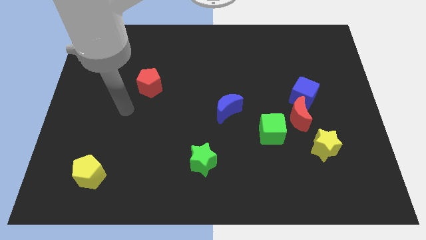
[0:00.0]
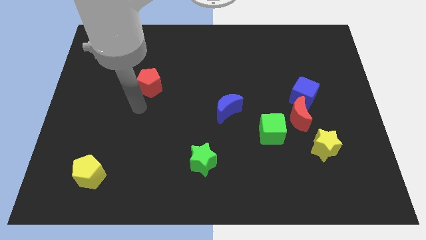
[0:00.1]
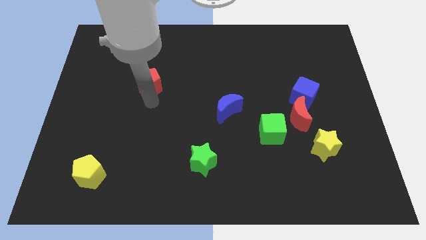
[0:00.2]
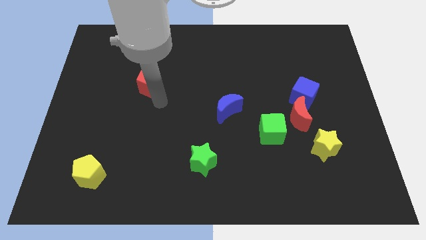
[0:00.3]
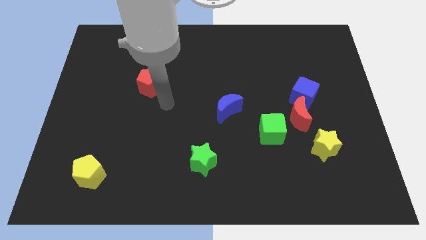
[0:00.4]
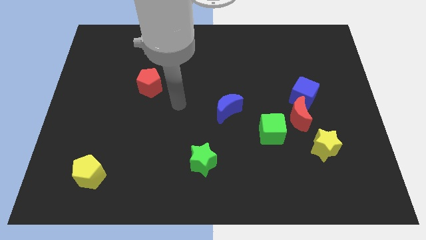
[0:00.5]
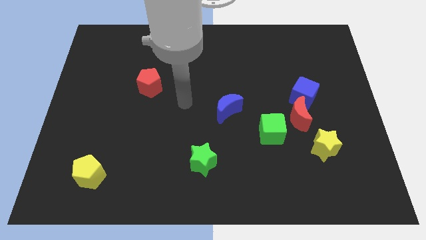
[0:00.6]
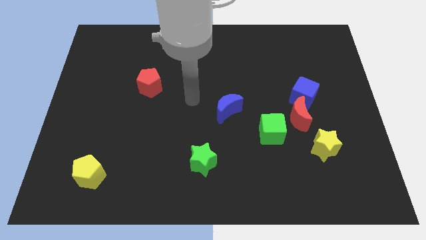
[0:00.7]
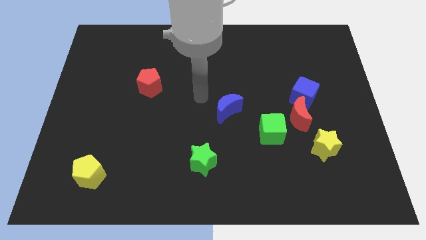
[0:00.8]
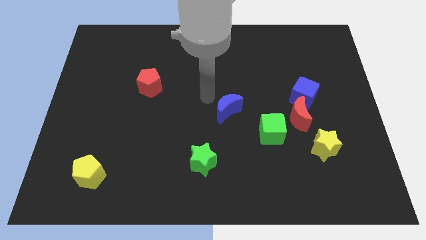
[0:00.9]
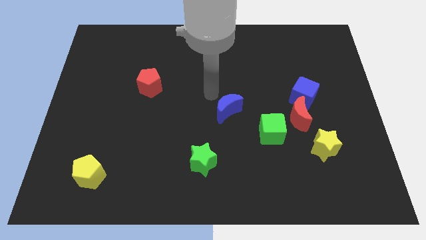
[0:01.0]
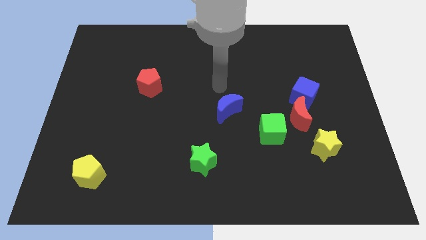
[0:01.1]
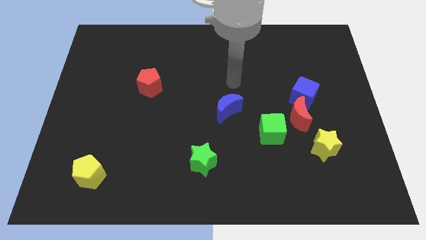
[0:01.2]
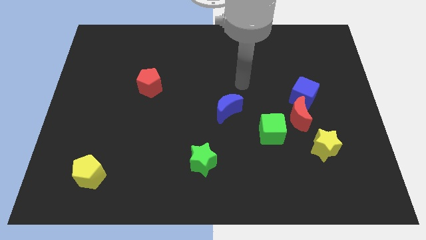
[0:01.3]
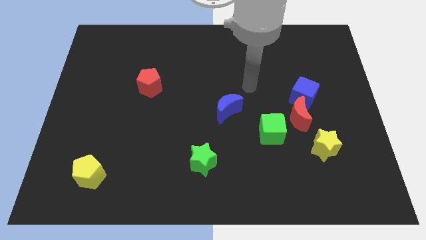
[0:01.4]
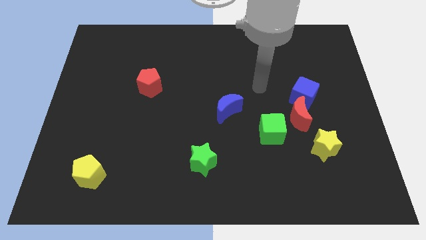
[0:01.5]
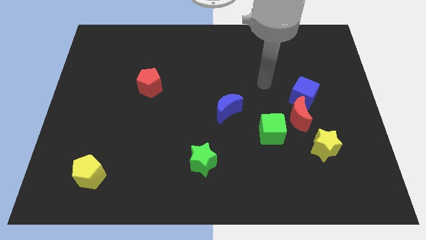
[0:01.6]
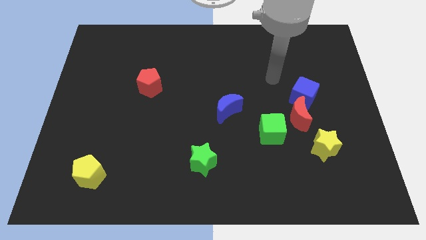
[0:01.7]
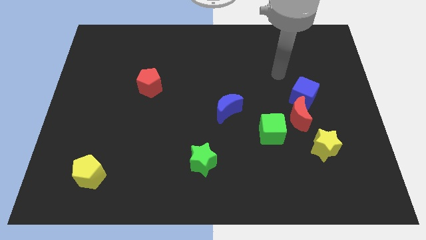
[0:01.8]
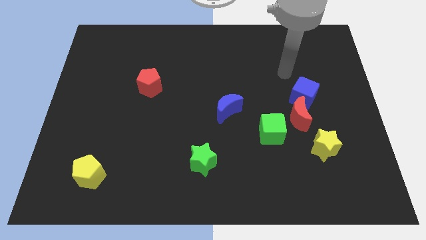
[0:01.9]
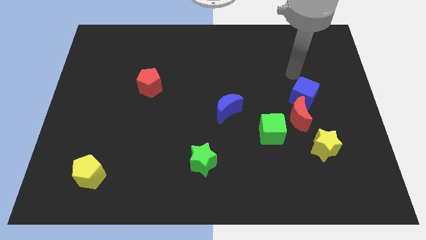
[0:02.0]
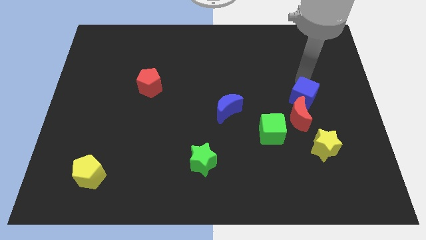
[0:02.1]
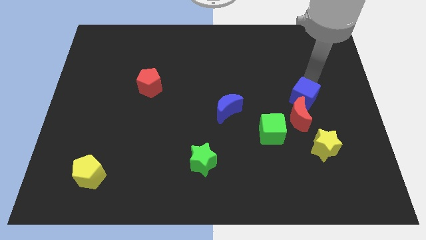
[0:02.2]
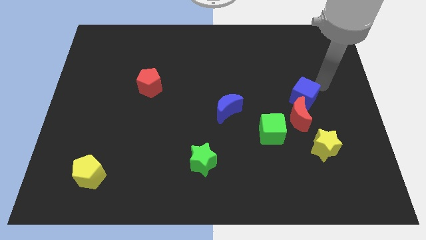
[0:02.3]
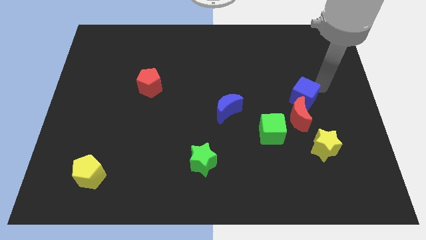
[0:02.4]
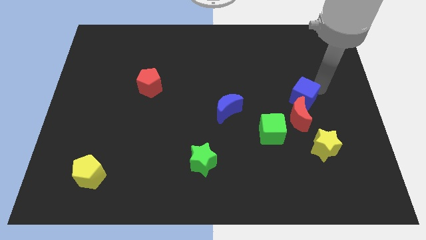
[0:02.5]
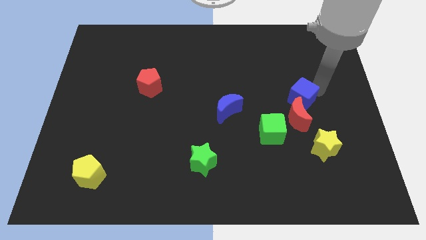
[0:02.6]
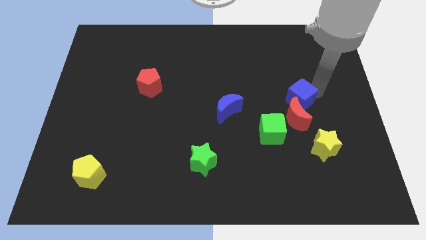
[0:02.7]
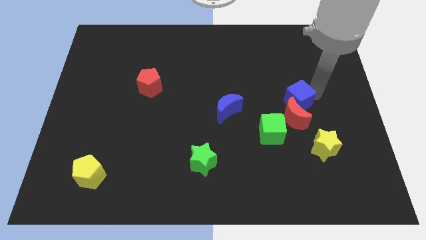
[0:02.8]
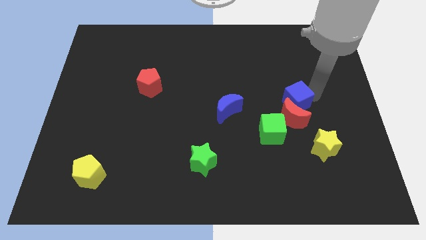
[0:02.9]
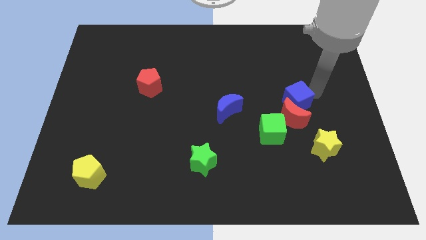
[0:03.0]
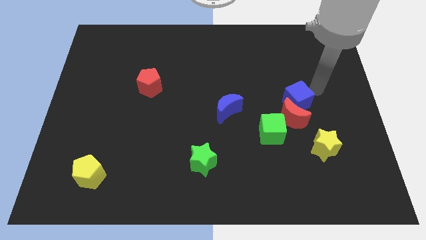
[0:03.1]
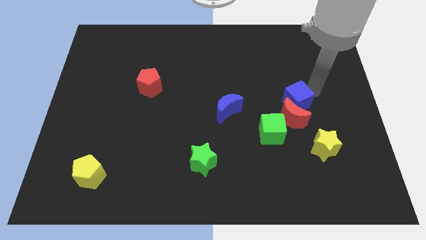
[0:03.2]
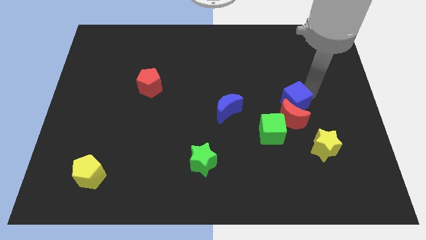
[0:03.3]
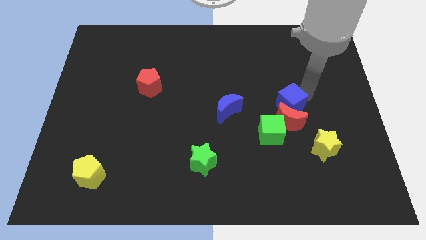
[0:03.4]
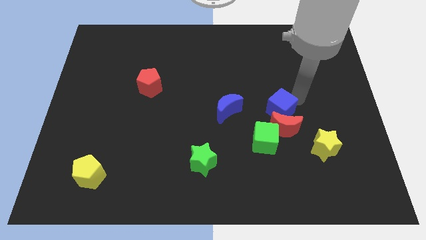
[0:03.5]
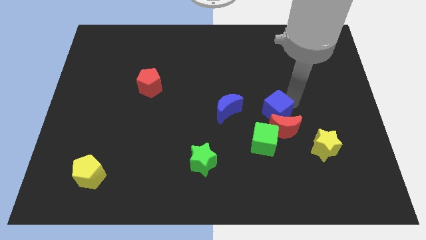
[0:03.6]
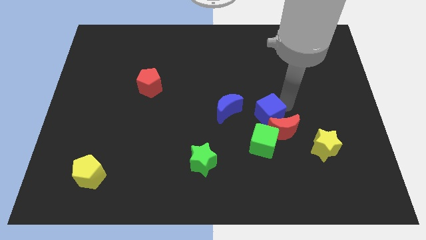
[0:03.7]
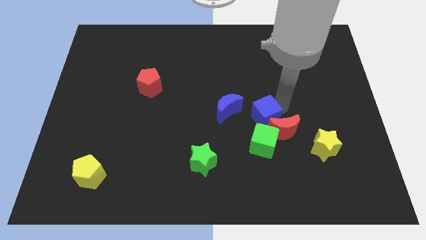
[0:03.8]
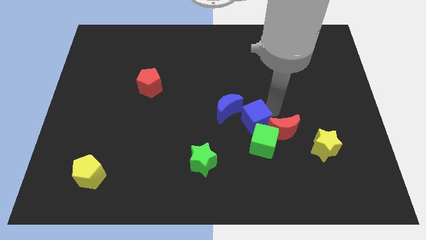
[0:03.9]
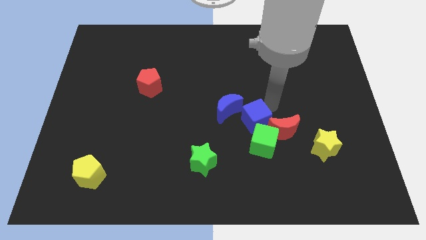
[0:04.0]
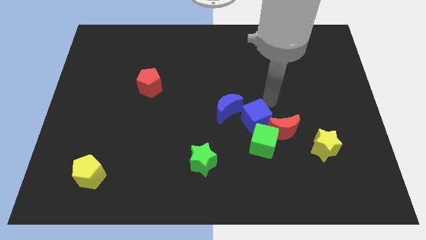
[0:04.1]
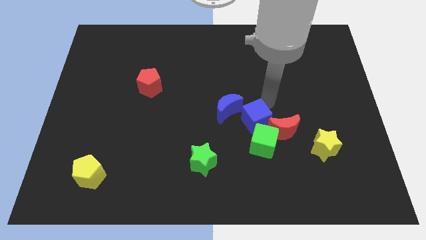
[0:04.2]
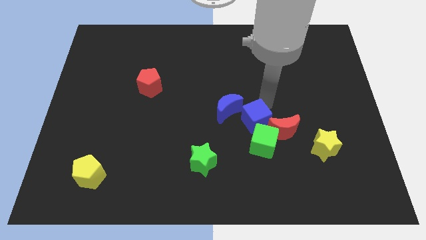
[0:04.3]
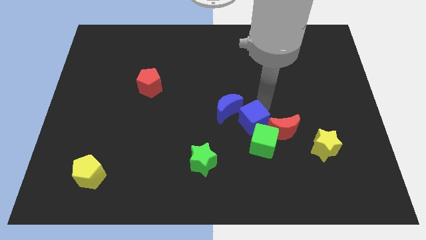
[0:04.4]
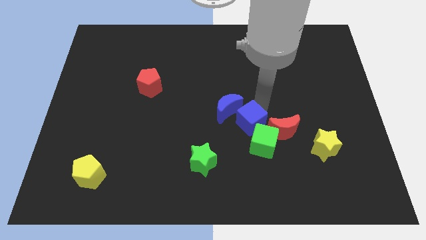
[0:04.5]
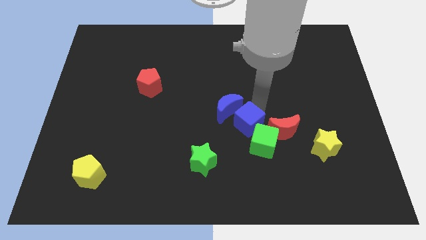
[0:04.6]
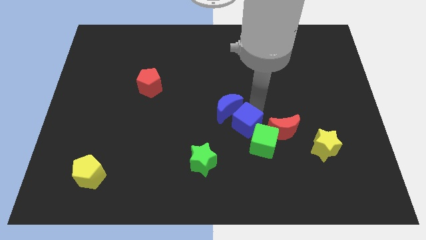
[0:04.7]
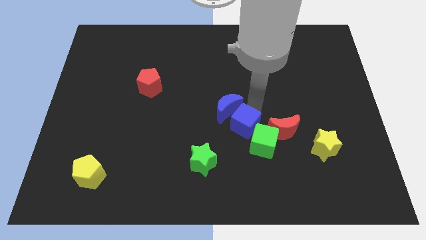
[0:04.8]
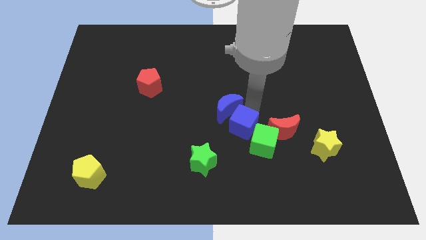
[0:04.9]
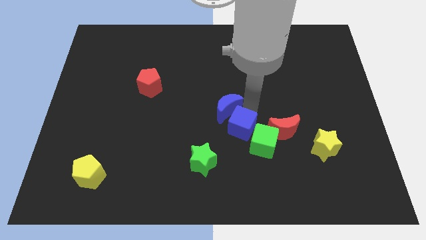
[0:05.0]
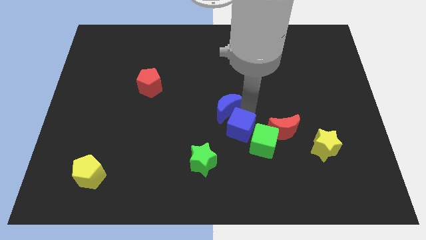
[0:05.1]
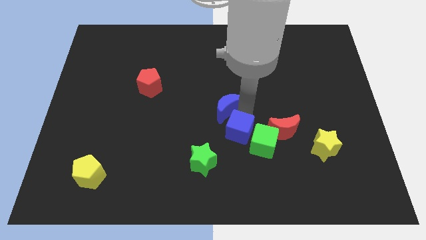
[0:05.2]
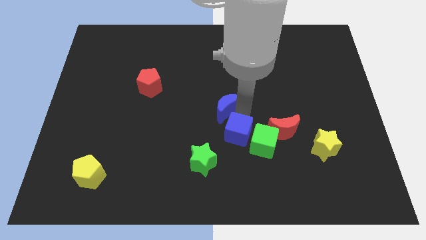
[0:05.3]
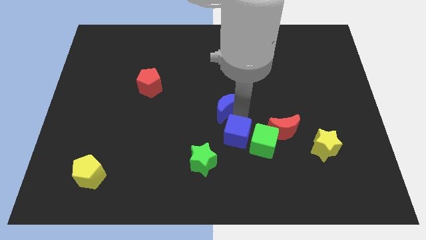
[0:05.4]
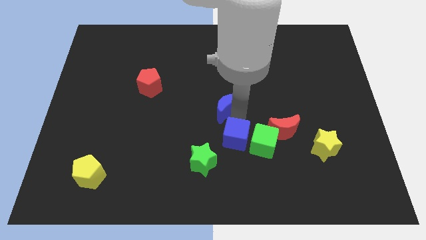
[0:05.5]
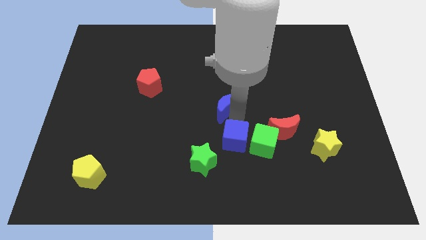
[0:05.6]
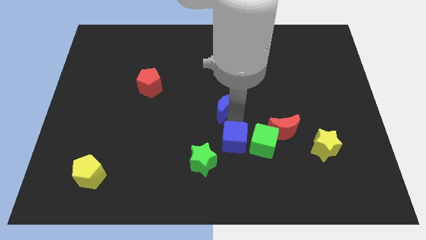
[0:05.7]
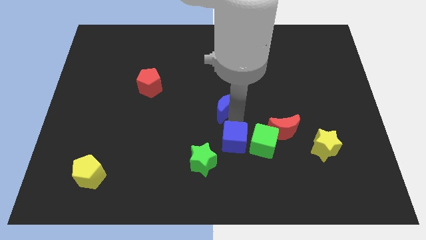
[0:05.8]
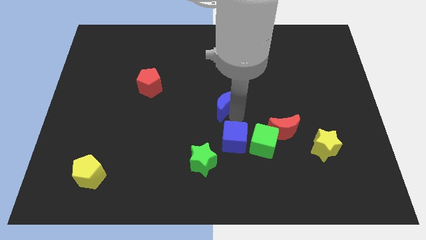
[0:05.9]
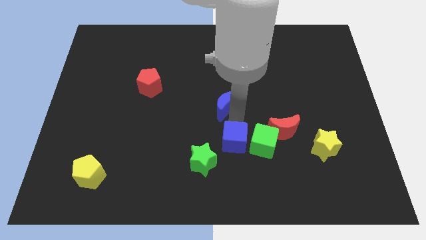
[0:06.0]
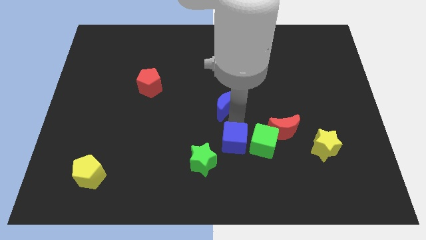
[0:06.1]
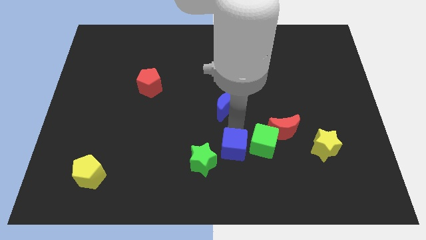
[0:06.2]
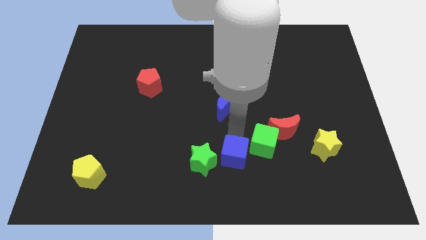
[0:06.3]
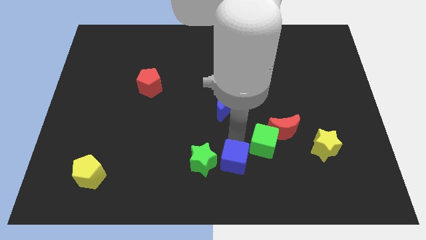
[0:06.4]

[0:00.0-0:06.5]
move the blue cube to the bottom side

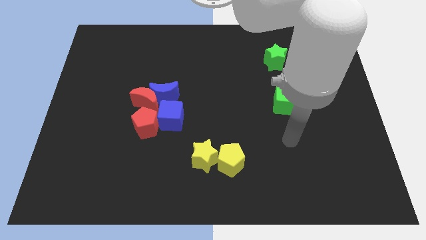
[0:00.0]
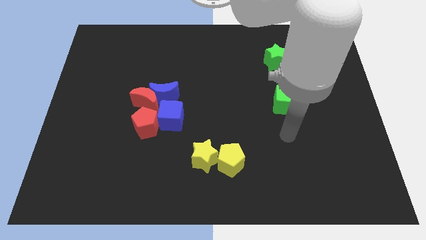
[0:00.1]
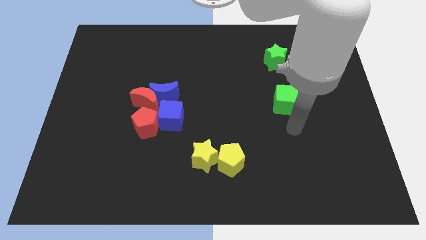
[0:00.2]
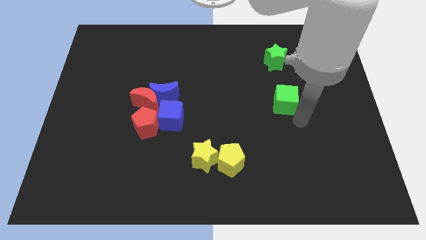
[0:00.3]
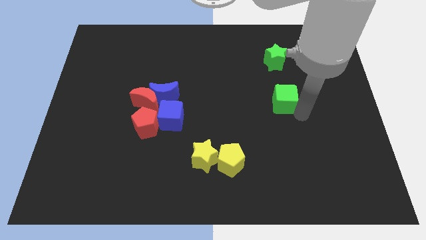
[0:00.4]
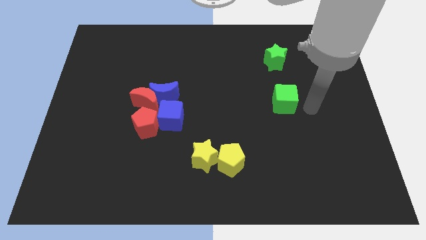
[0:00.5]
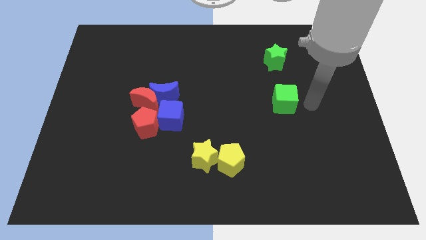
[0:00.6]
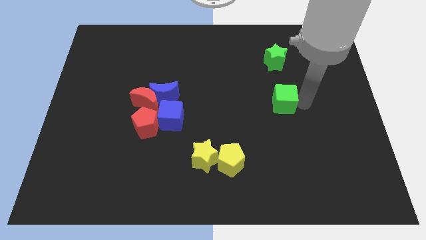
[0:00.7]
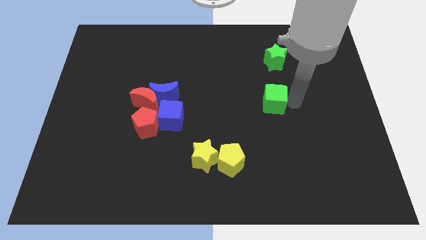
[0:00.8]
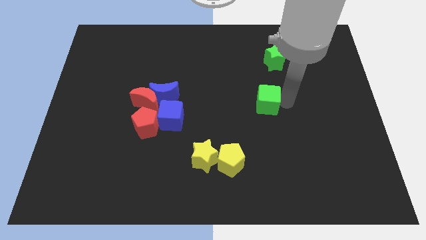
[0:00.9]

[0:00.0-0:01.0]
slide the green cube to the center
